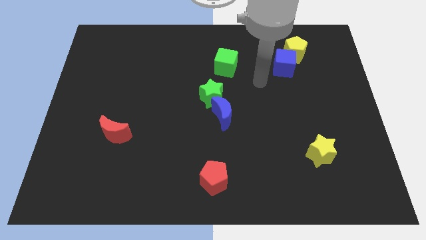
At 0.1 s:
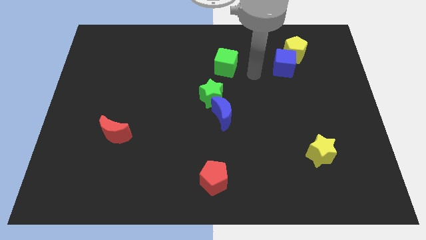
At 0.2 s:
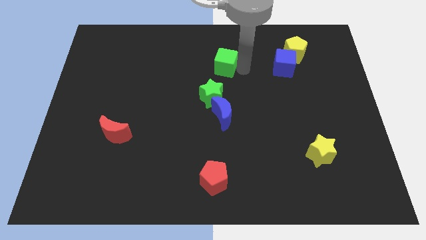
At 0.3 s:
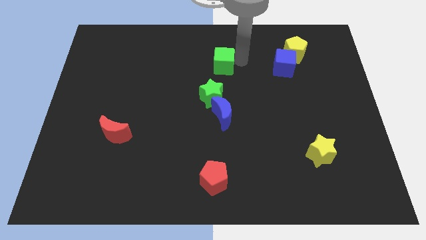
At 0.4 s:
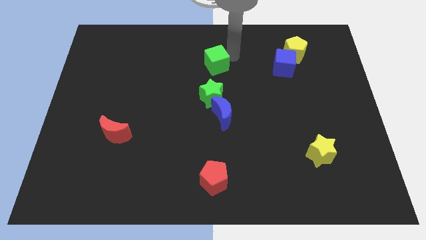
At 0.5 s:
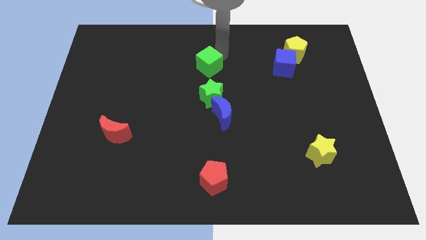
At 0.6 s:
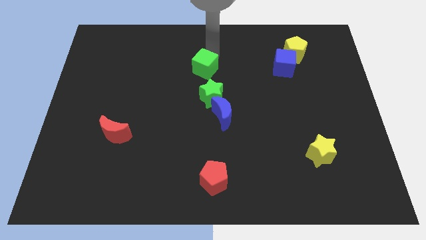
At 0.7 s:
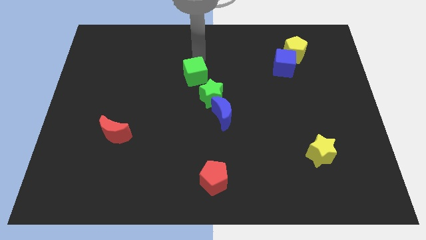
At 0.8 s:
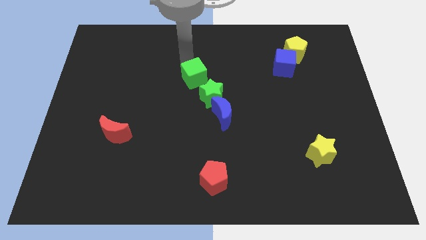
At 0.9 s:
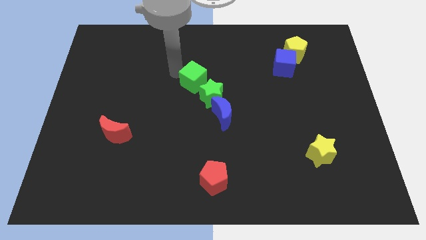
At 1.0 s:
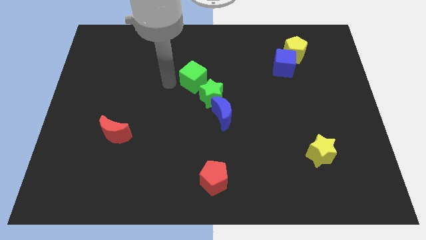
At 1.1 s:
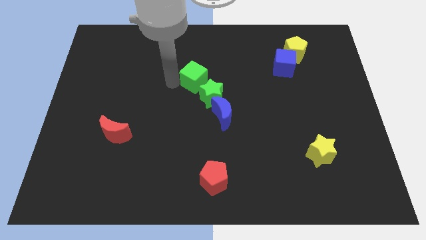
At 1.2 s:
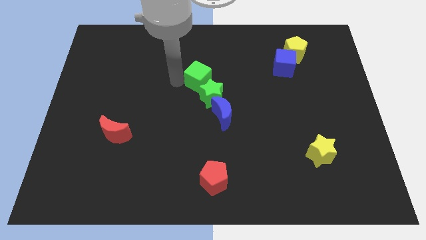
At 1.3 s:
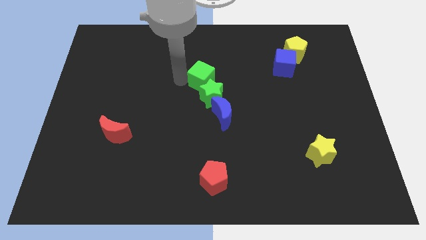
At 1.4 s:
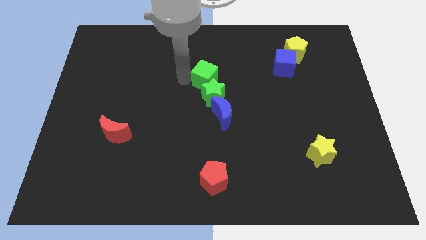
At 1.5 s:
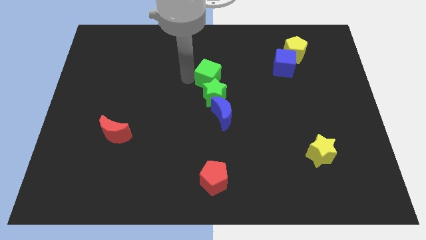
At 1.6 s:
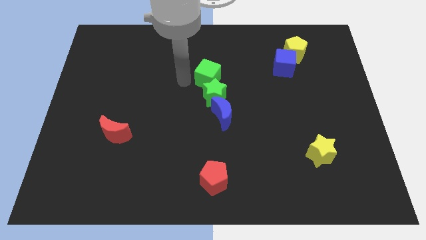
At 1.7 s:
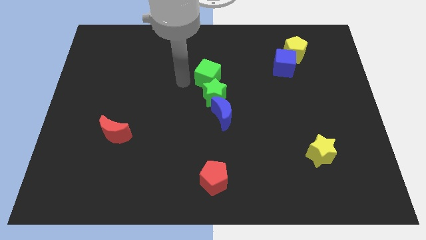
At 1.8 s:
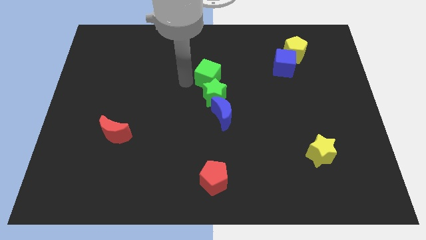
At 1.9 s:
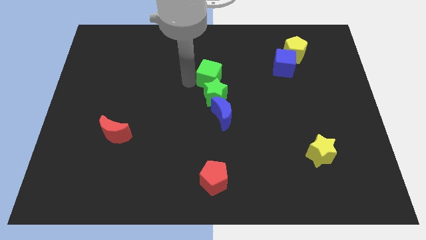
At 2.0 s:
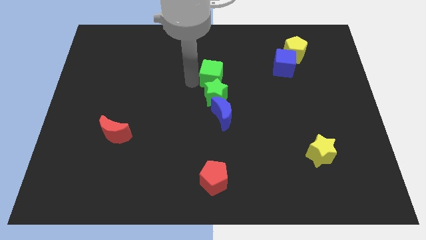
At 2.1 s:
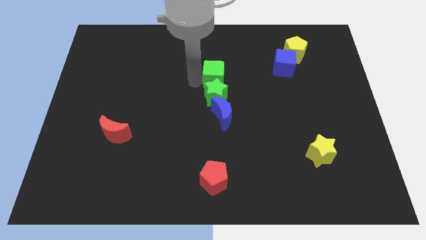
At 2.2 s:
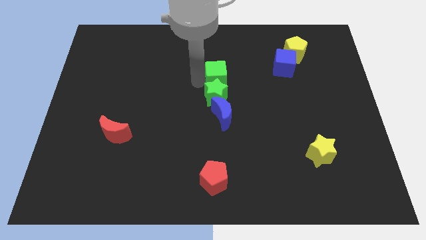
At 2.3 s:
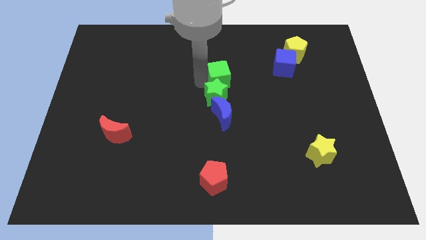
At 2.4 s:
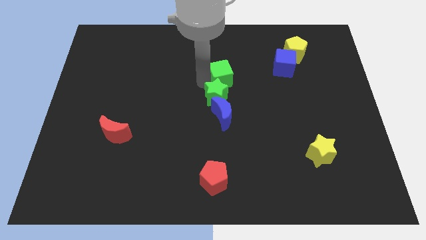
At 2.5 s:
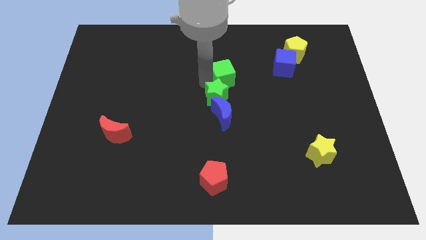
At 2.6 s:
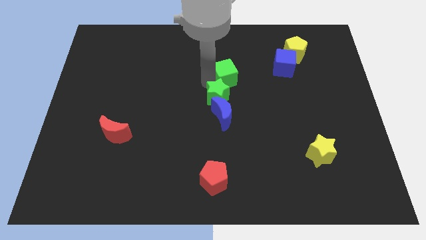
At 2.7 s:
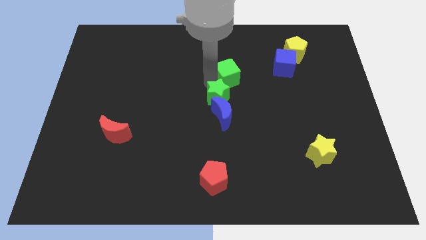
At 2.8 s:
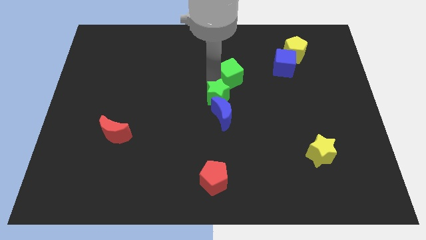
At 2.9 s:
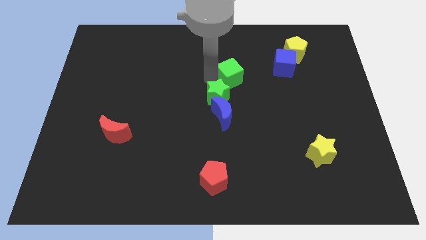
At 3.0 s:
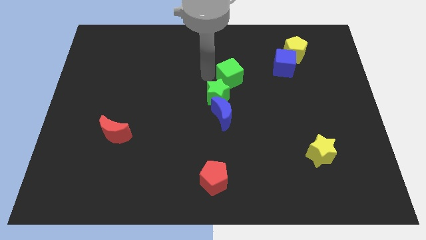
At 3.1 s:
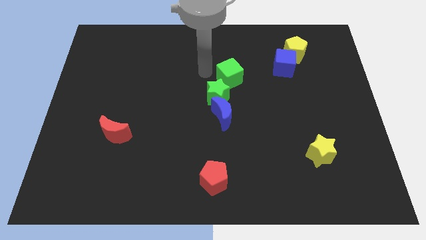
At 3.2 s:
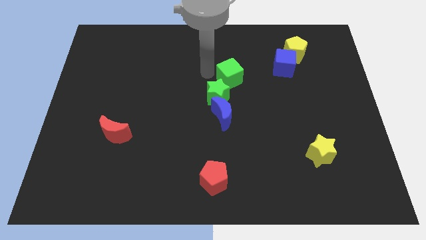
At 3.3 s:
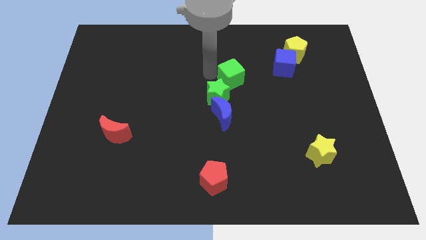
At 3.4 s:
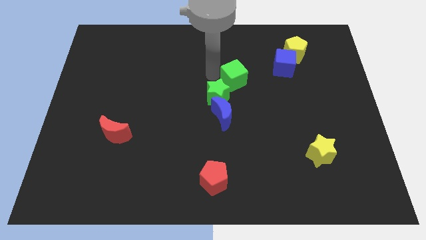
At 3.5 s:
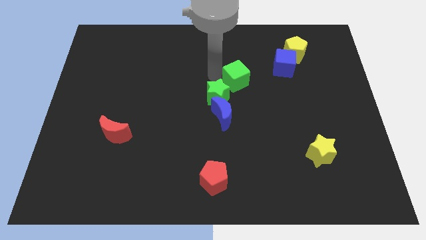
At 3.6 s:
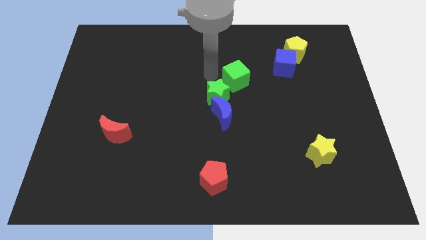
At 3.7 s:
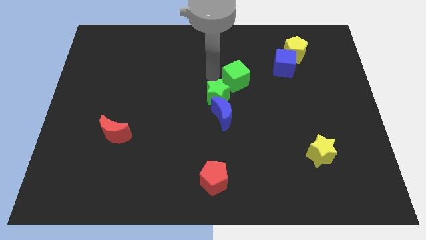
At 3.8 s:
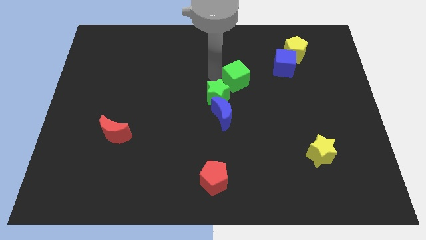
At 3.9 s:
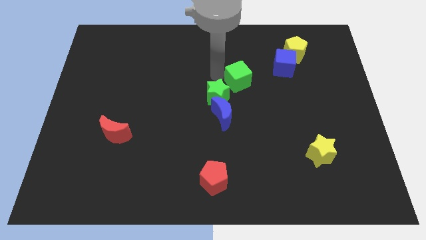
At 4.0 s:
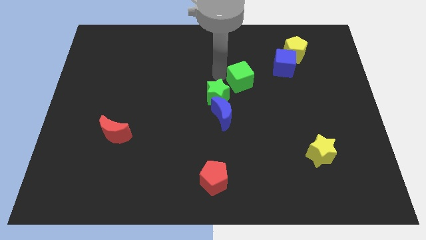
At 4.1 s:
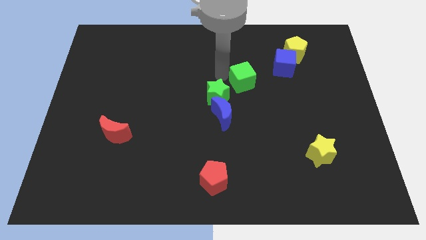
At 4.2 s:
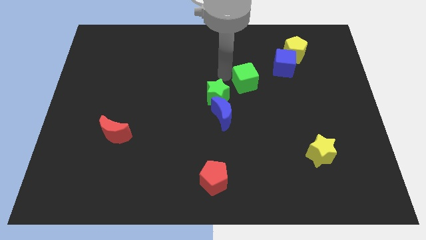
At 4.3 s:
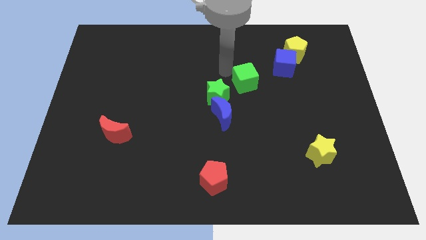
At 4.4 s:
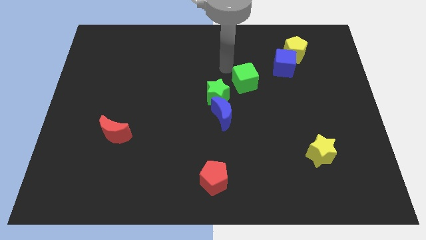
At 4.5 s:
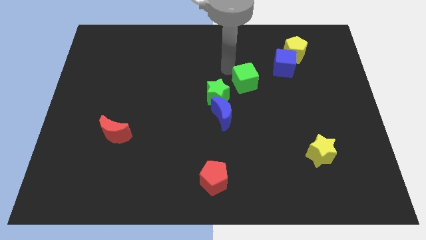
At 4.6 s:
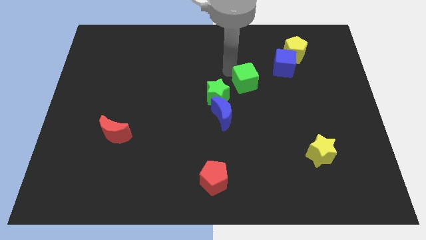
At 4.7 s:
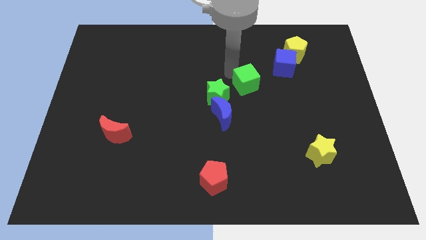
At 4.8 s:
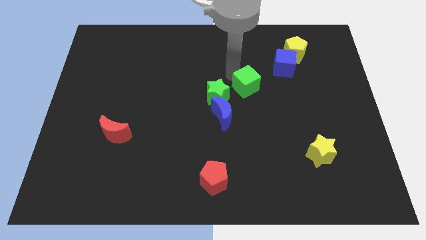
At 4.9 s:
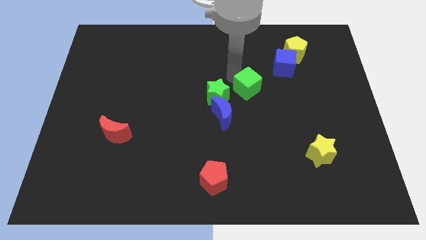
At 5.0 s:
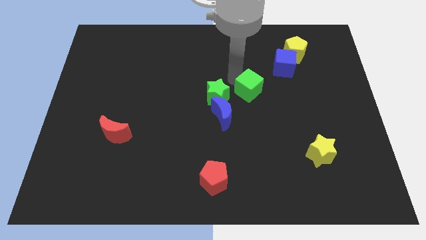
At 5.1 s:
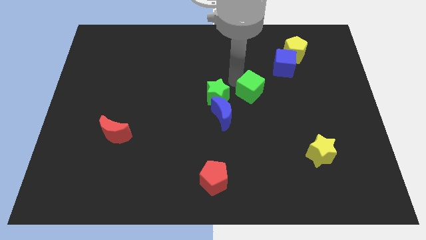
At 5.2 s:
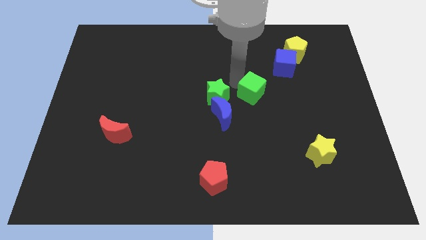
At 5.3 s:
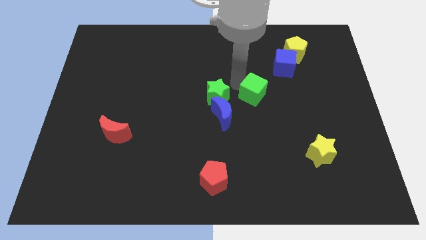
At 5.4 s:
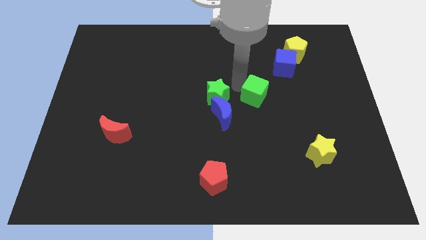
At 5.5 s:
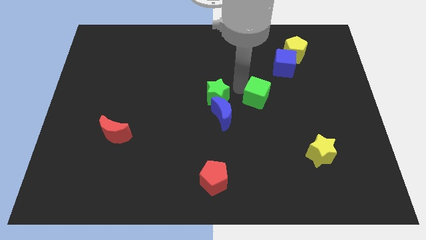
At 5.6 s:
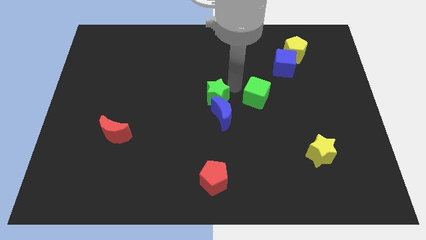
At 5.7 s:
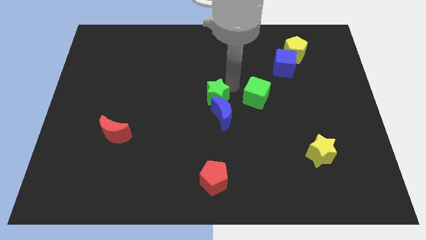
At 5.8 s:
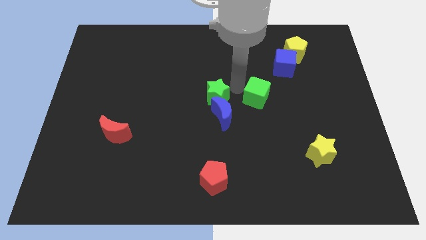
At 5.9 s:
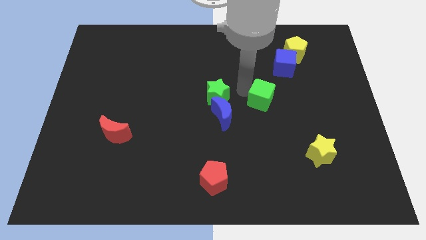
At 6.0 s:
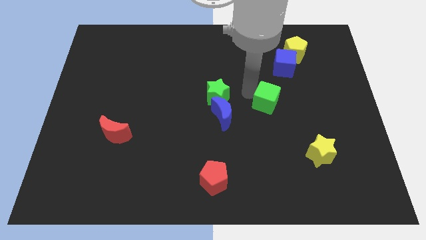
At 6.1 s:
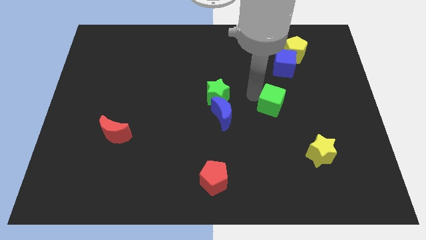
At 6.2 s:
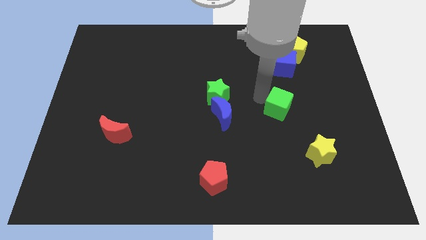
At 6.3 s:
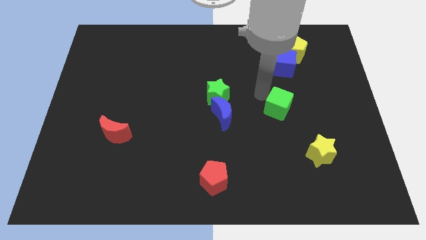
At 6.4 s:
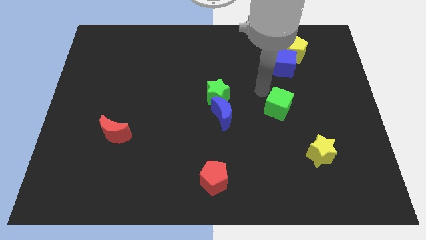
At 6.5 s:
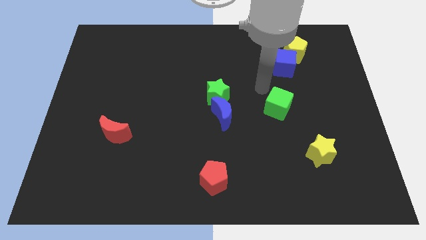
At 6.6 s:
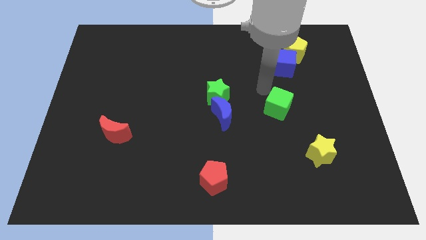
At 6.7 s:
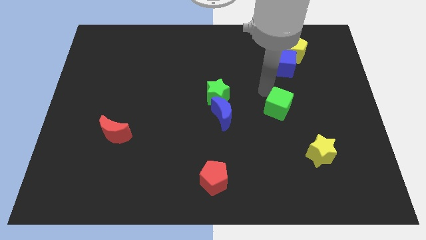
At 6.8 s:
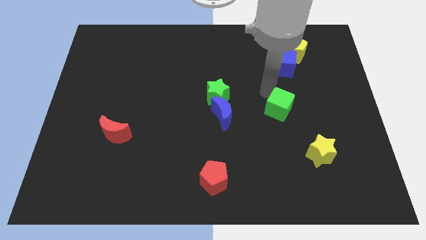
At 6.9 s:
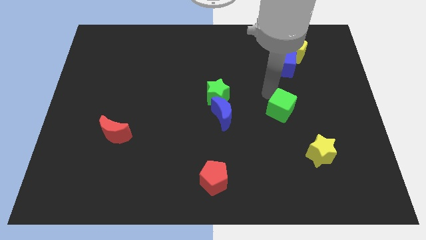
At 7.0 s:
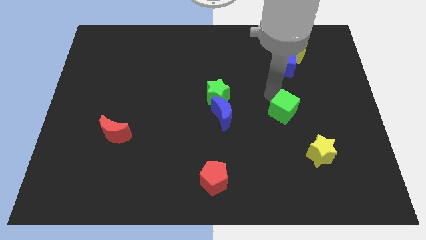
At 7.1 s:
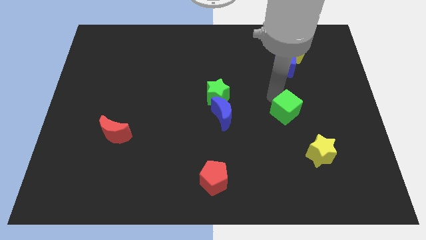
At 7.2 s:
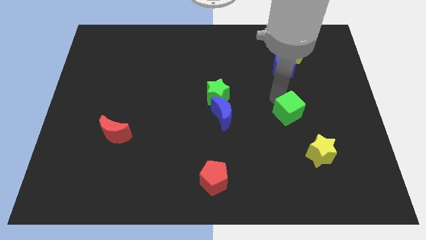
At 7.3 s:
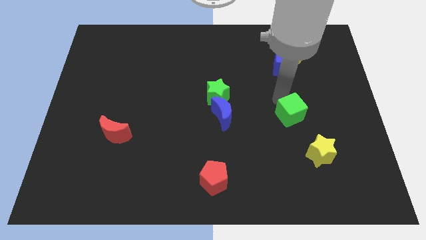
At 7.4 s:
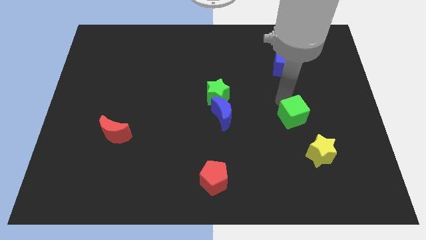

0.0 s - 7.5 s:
put the green cube to the top left of the yellow star
